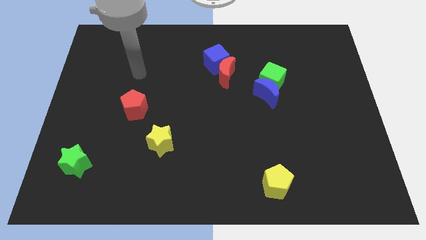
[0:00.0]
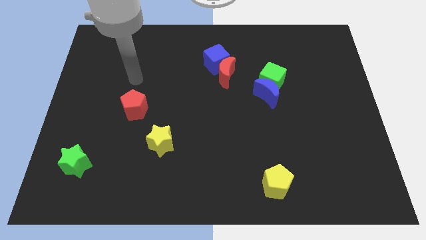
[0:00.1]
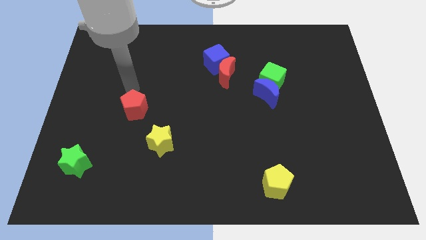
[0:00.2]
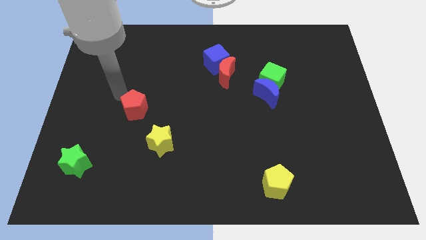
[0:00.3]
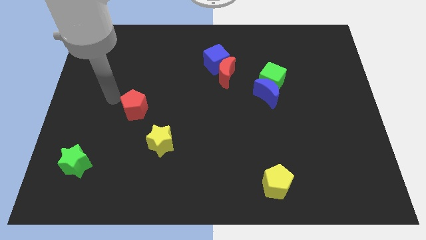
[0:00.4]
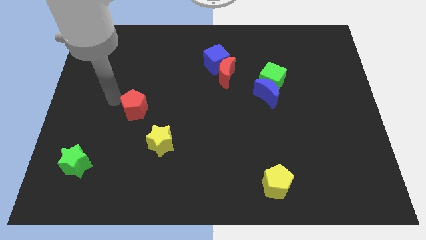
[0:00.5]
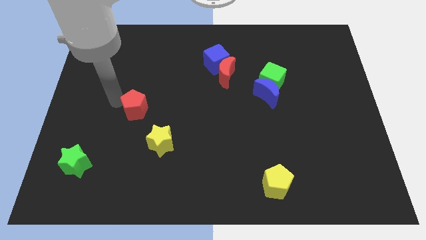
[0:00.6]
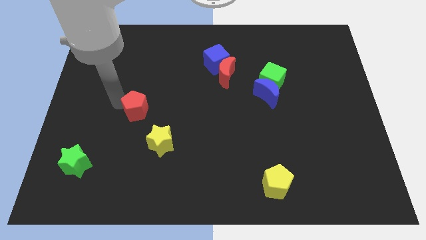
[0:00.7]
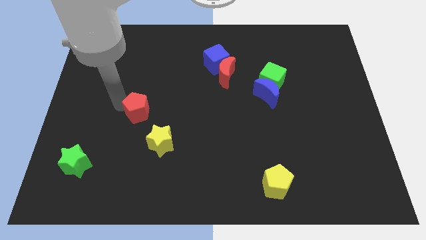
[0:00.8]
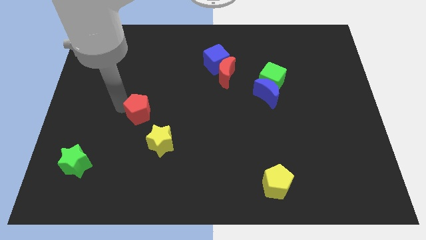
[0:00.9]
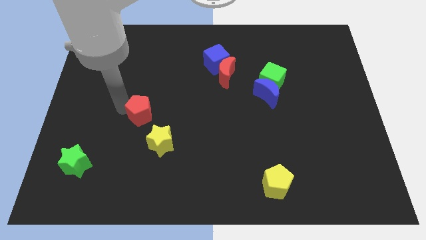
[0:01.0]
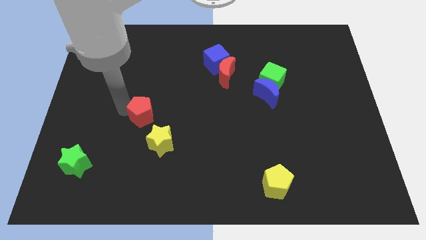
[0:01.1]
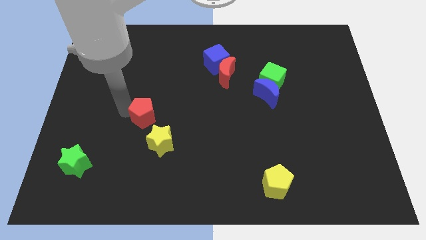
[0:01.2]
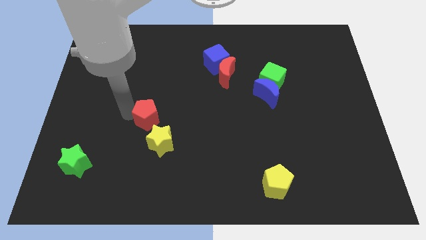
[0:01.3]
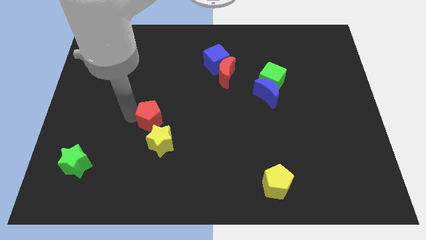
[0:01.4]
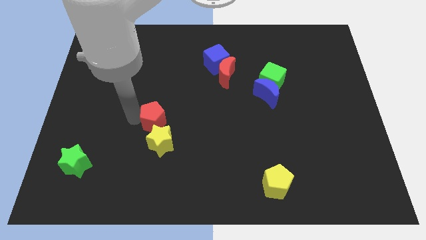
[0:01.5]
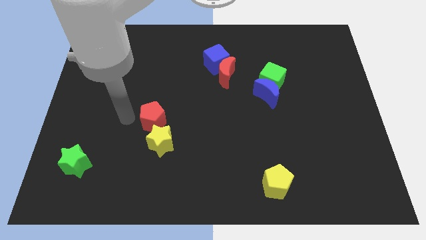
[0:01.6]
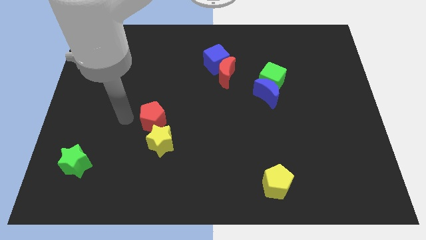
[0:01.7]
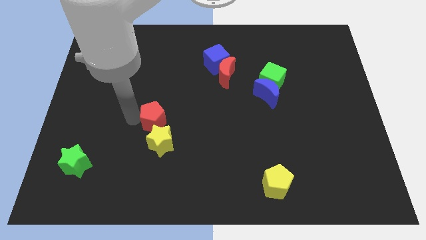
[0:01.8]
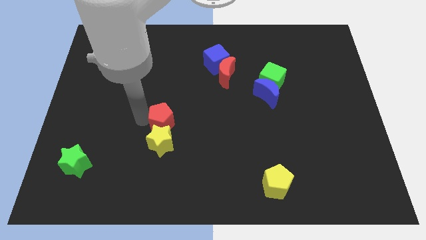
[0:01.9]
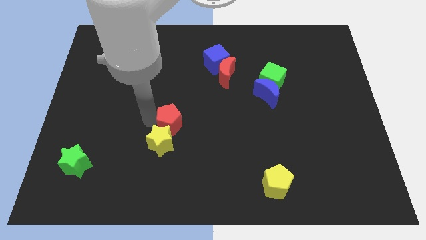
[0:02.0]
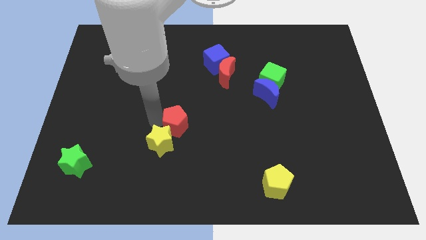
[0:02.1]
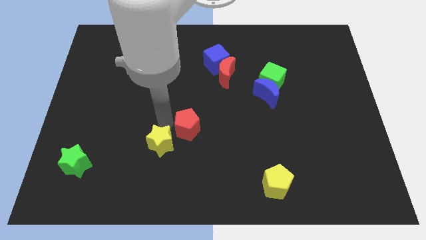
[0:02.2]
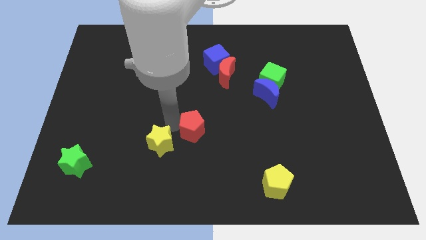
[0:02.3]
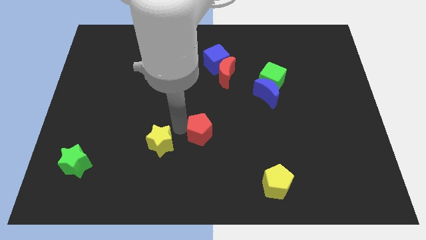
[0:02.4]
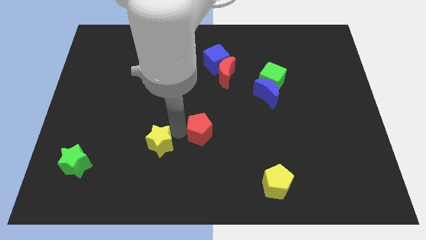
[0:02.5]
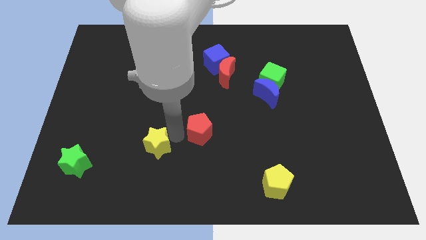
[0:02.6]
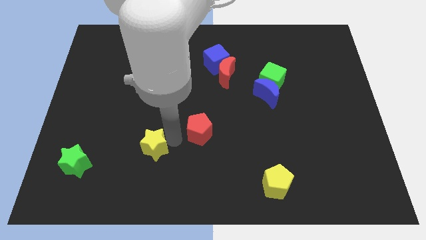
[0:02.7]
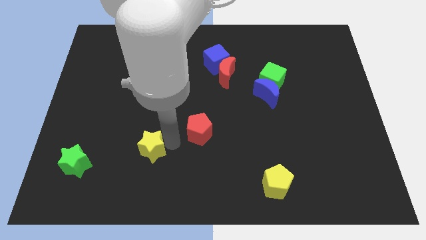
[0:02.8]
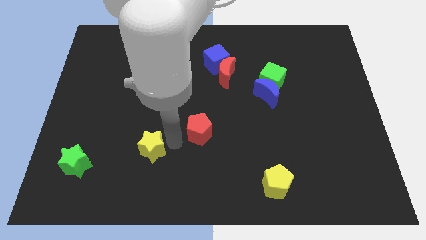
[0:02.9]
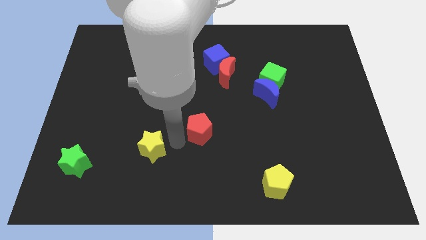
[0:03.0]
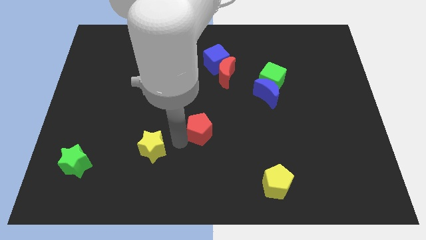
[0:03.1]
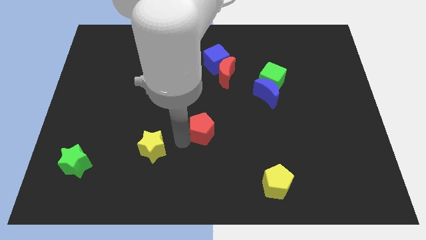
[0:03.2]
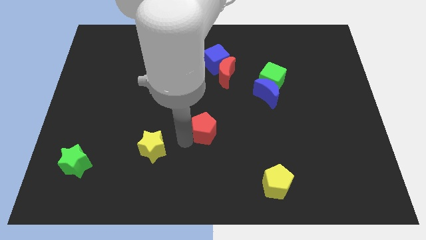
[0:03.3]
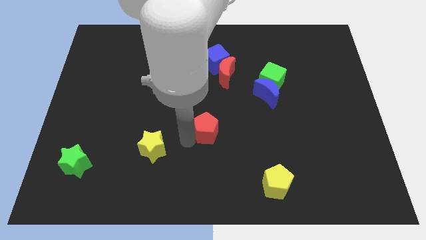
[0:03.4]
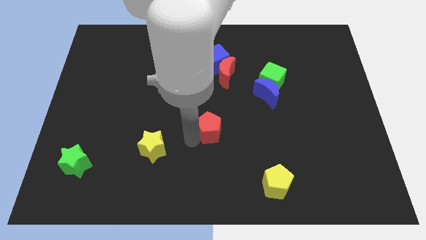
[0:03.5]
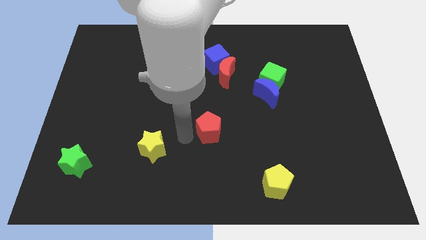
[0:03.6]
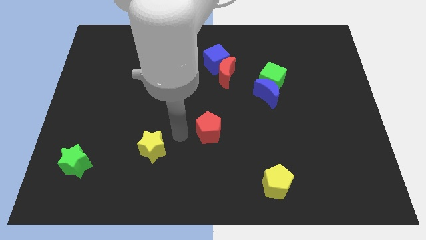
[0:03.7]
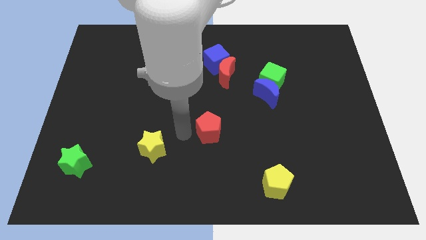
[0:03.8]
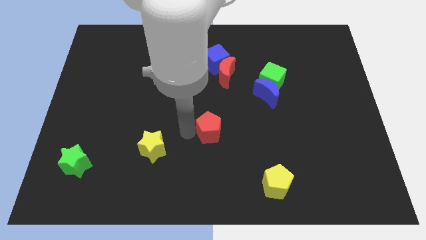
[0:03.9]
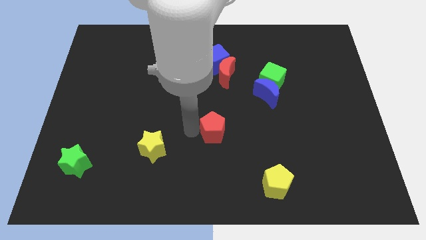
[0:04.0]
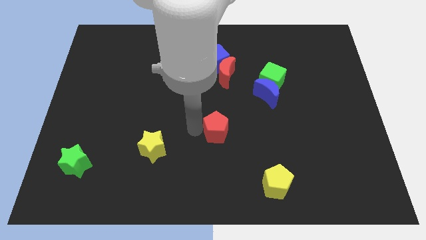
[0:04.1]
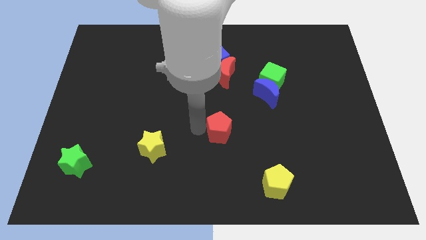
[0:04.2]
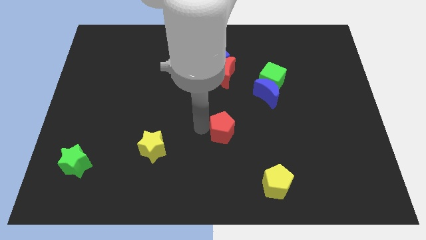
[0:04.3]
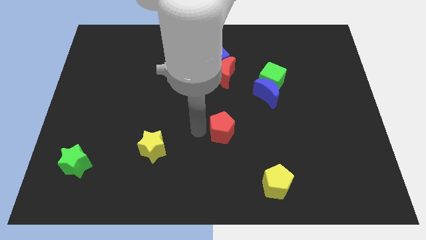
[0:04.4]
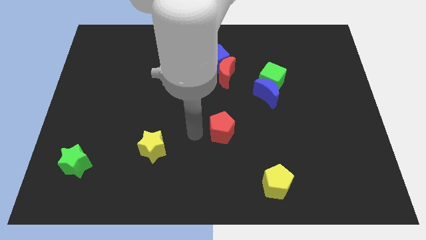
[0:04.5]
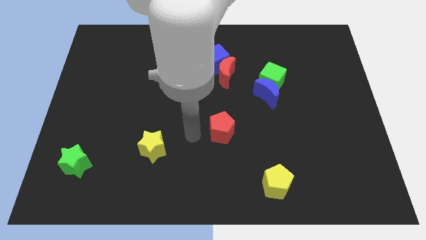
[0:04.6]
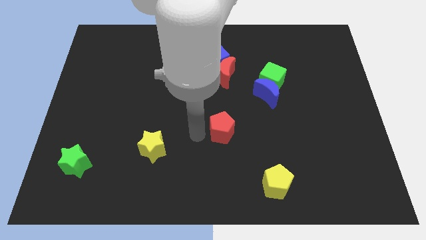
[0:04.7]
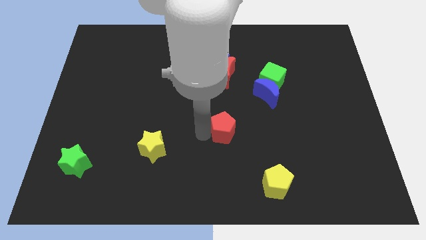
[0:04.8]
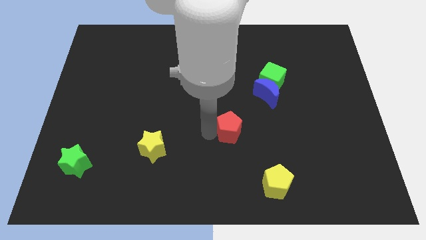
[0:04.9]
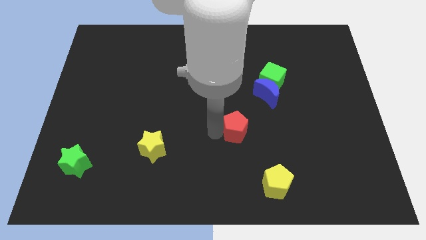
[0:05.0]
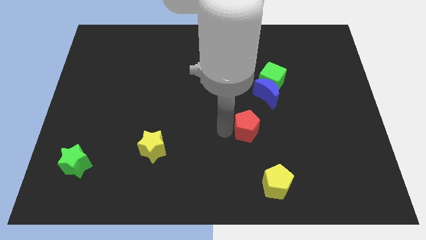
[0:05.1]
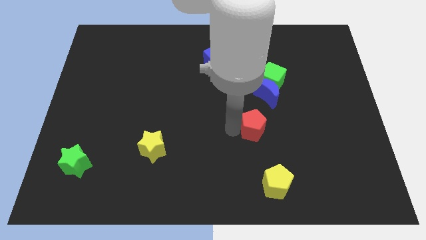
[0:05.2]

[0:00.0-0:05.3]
push the red pentagon to the bottom side of the blue moon

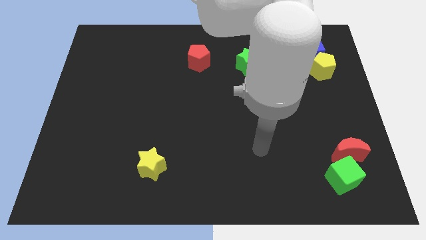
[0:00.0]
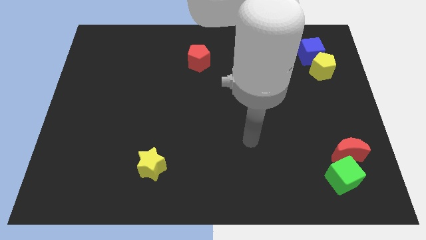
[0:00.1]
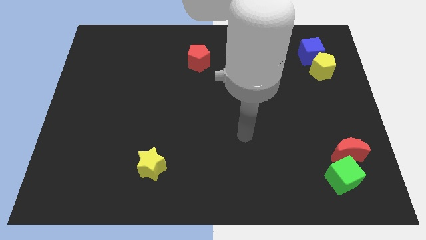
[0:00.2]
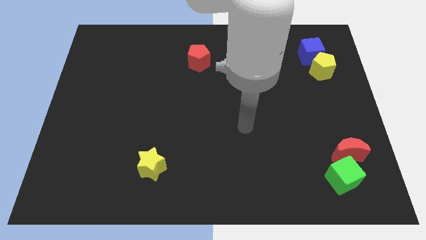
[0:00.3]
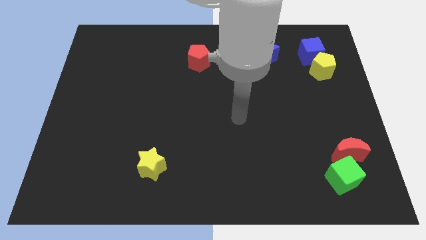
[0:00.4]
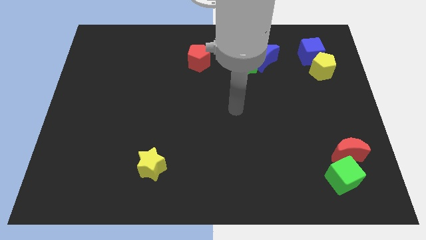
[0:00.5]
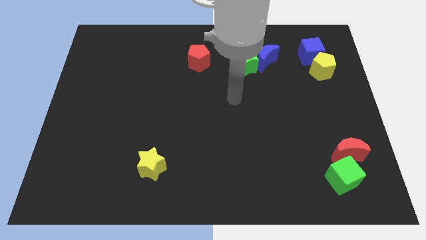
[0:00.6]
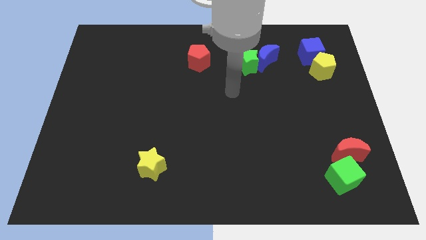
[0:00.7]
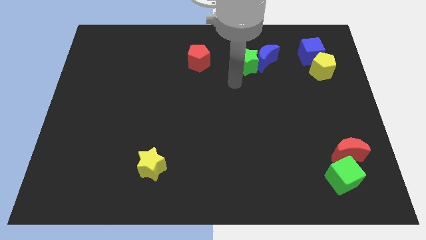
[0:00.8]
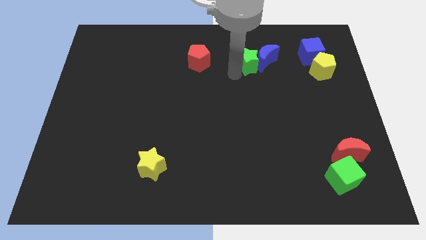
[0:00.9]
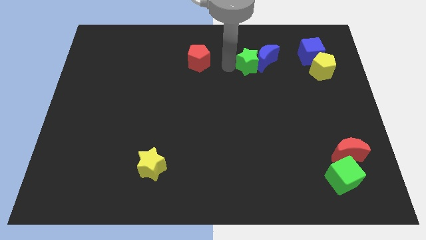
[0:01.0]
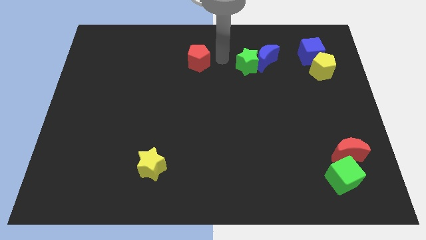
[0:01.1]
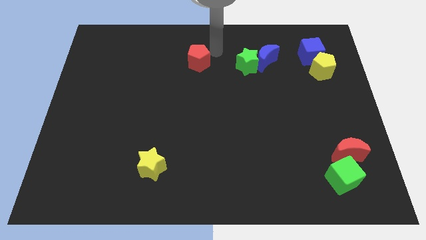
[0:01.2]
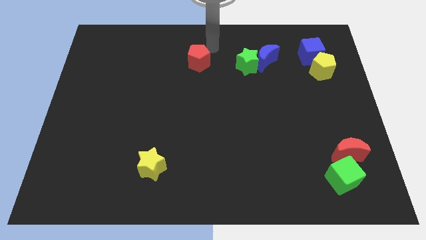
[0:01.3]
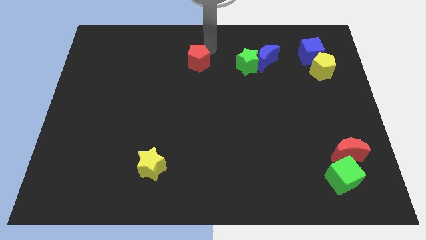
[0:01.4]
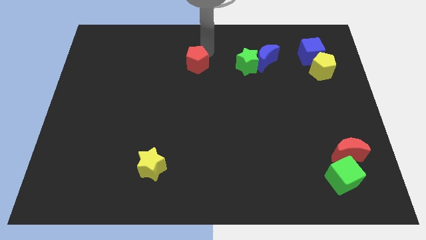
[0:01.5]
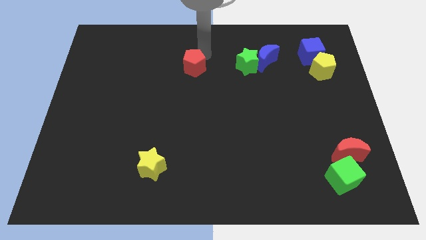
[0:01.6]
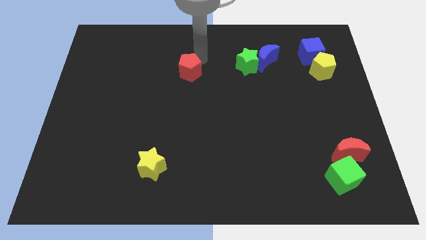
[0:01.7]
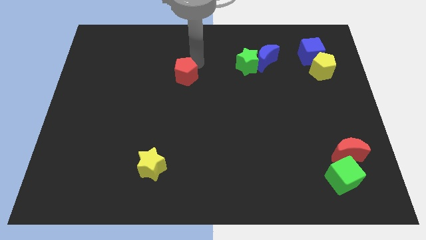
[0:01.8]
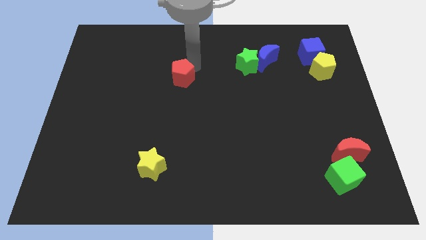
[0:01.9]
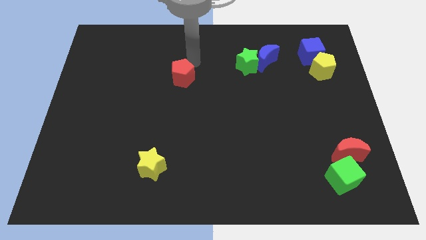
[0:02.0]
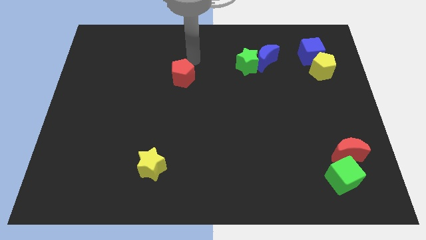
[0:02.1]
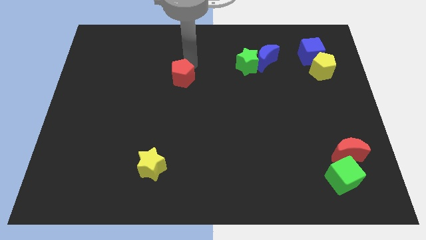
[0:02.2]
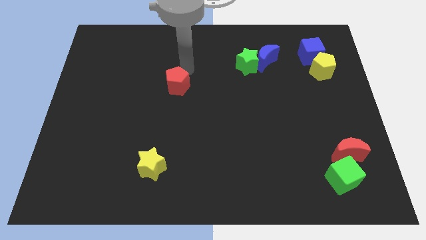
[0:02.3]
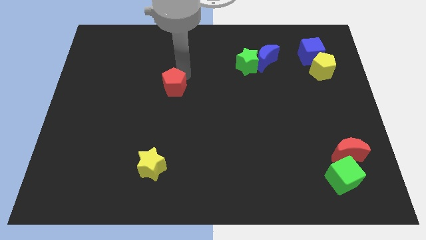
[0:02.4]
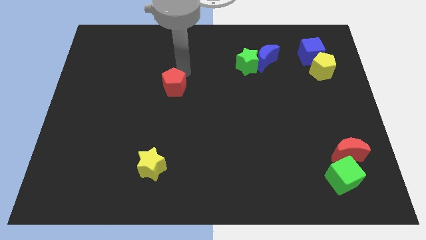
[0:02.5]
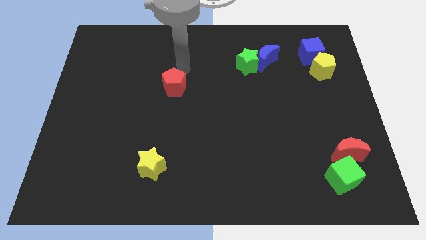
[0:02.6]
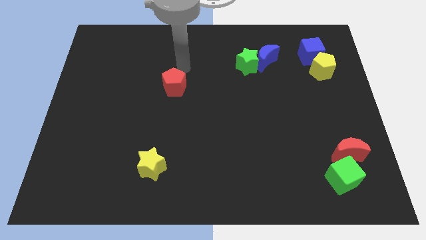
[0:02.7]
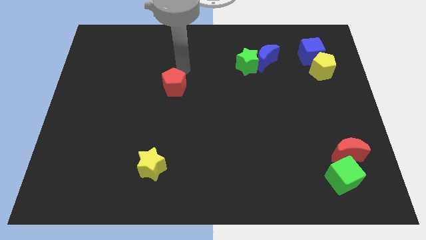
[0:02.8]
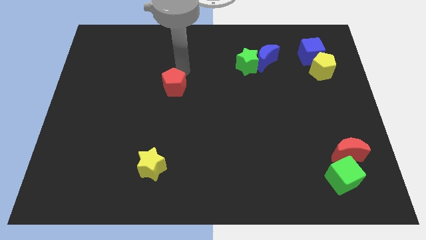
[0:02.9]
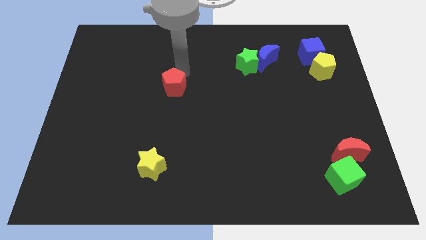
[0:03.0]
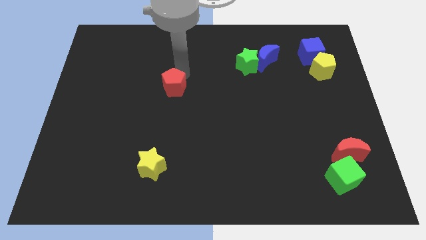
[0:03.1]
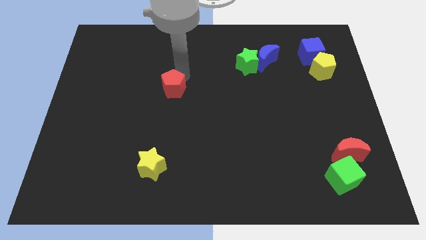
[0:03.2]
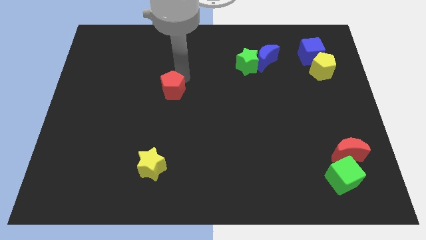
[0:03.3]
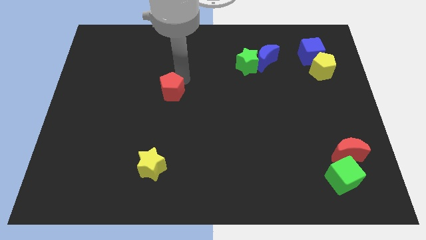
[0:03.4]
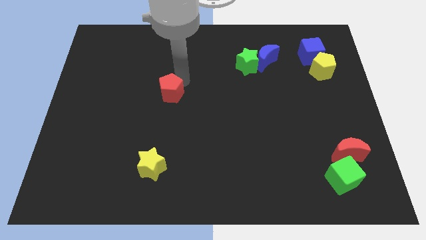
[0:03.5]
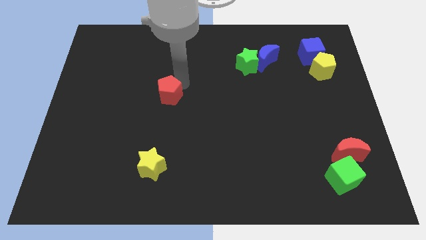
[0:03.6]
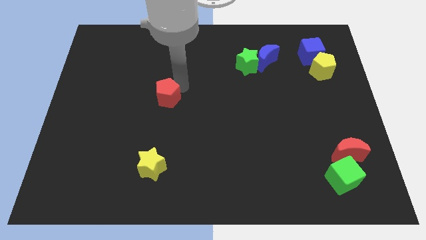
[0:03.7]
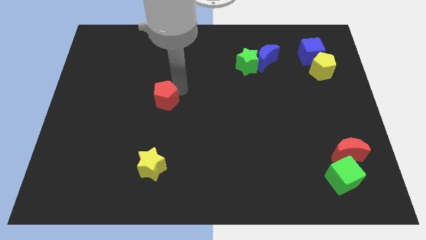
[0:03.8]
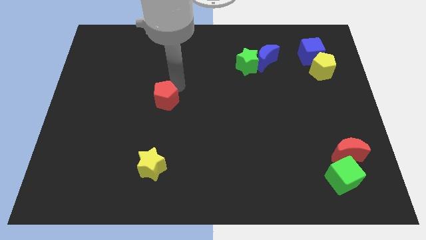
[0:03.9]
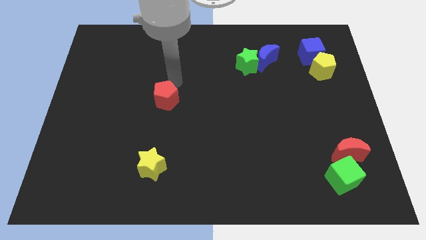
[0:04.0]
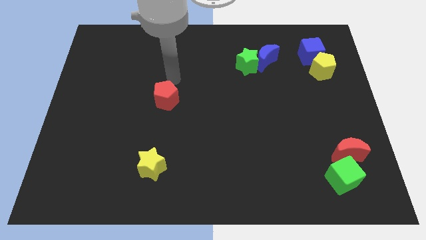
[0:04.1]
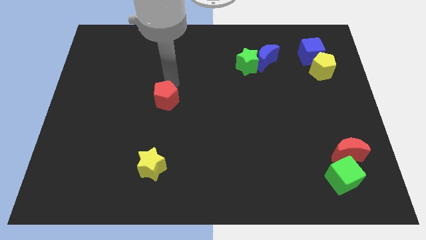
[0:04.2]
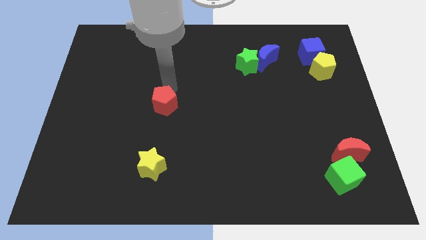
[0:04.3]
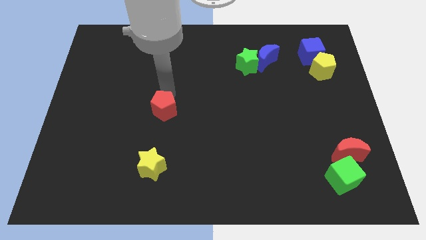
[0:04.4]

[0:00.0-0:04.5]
put the red pentagon to the top side of the yellow star
